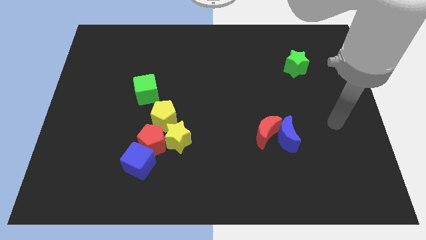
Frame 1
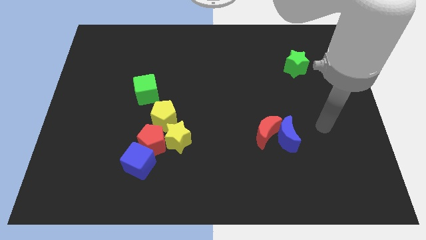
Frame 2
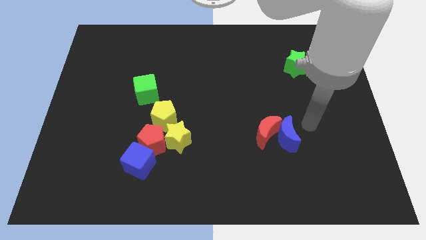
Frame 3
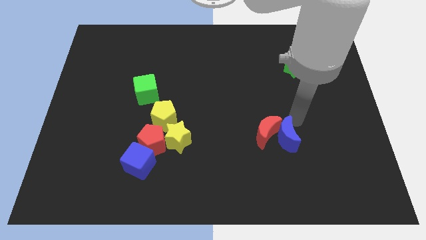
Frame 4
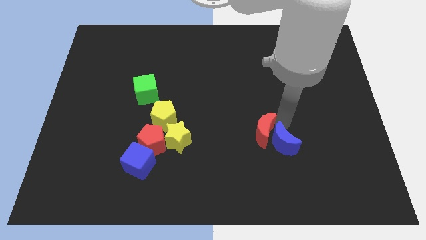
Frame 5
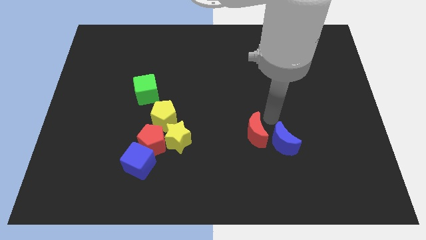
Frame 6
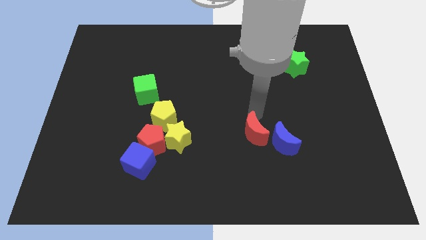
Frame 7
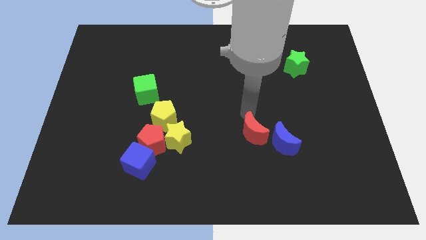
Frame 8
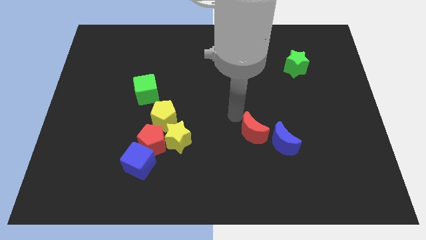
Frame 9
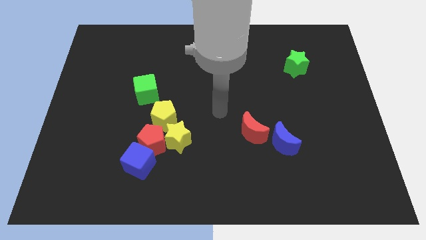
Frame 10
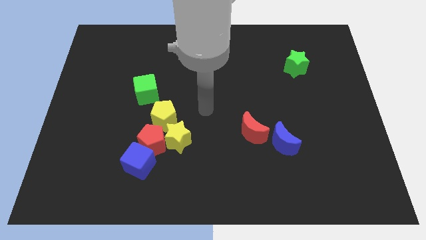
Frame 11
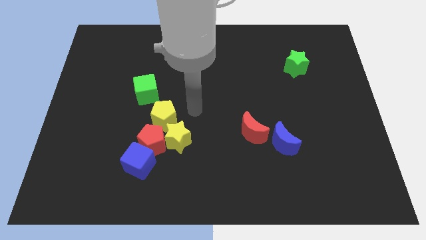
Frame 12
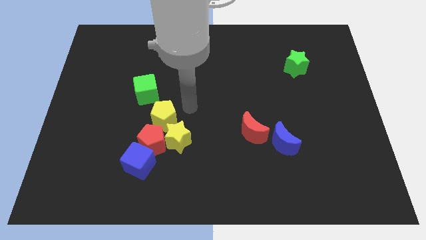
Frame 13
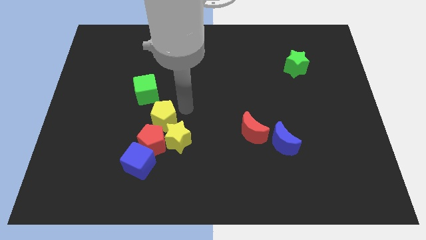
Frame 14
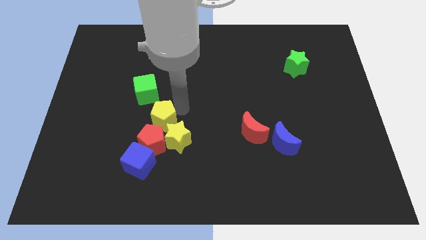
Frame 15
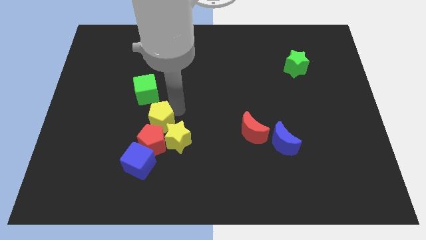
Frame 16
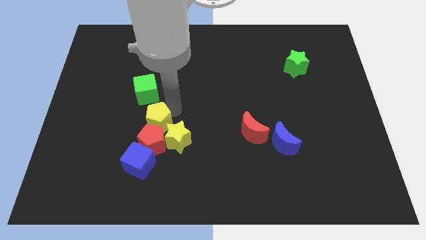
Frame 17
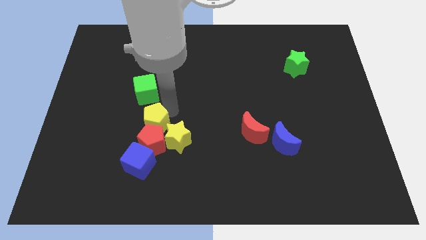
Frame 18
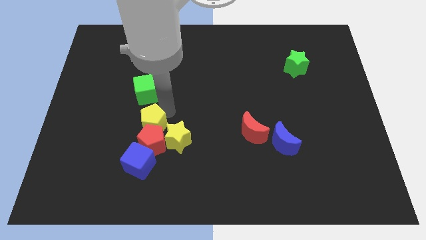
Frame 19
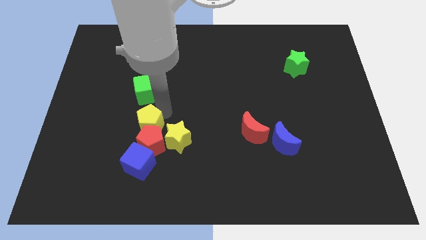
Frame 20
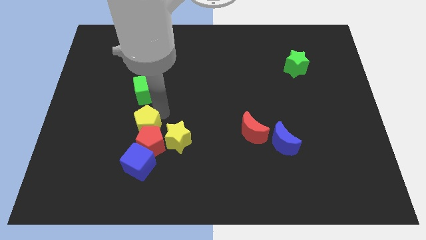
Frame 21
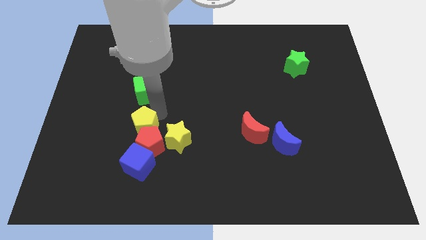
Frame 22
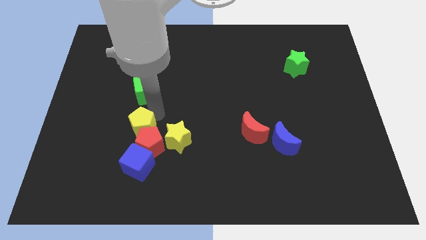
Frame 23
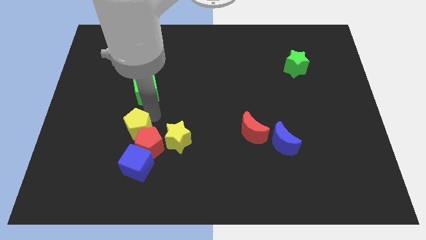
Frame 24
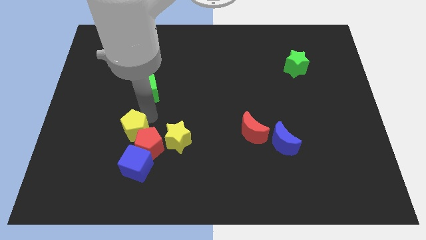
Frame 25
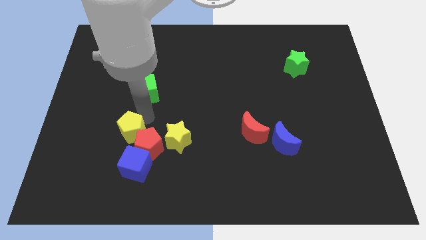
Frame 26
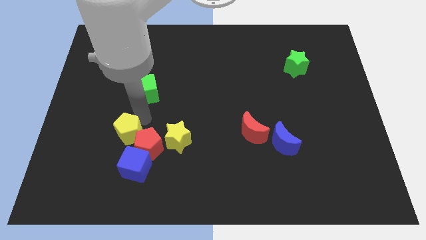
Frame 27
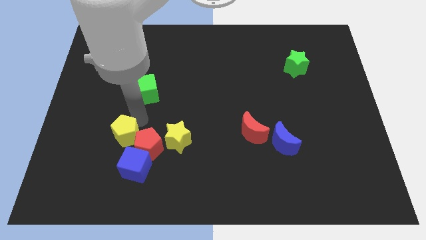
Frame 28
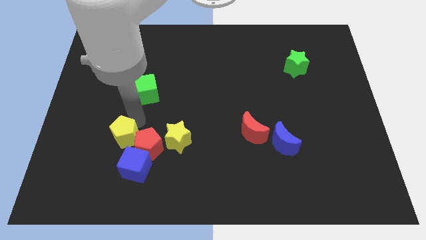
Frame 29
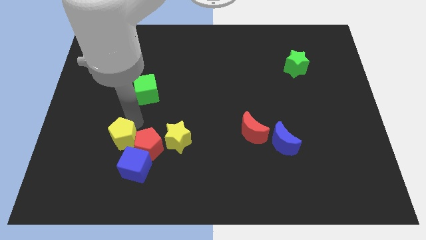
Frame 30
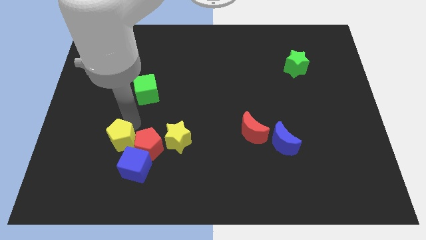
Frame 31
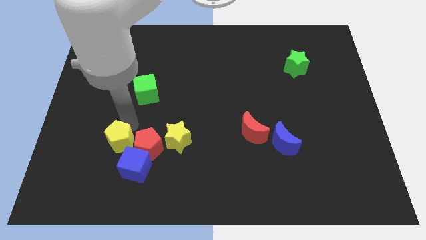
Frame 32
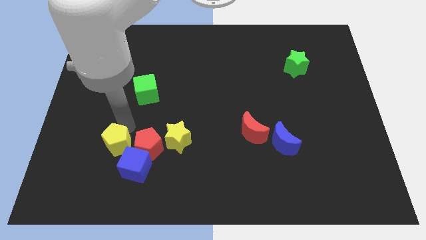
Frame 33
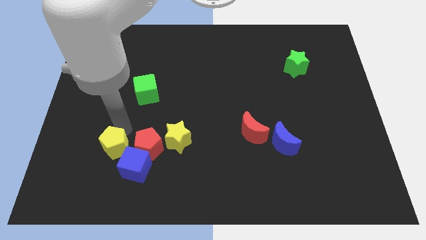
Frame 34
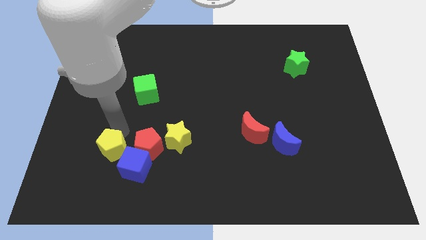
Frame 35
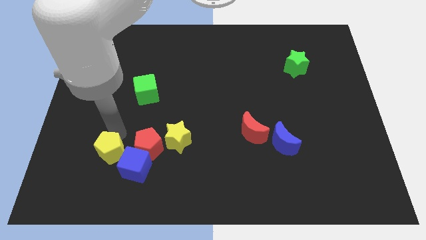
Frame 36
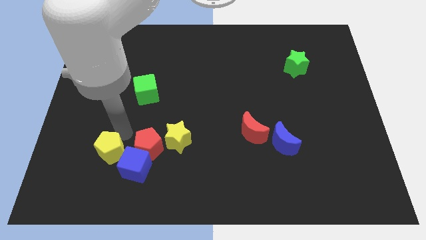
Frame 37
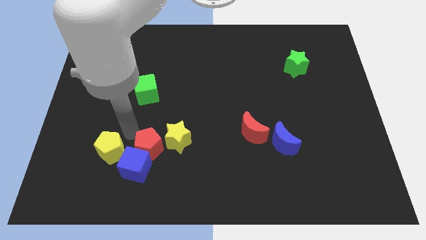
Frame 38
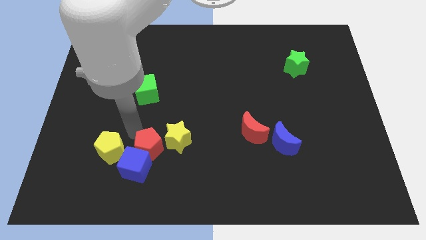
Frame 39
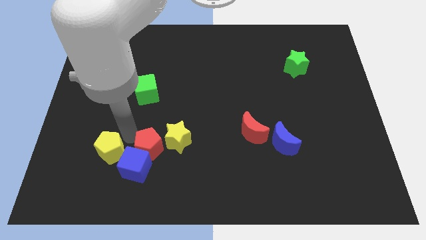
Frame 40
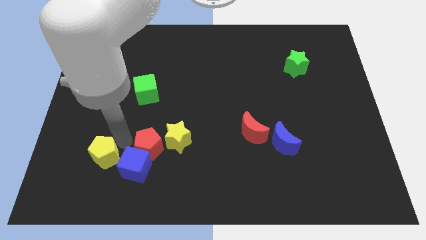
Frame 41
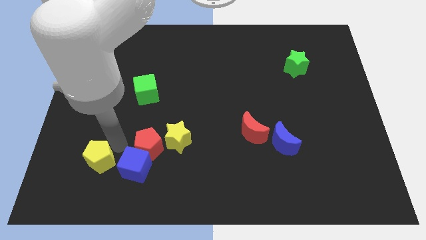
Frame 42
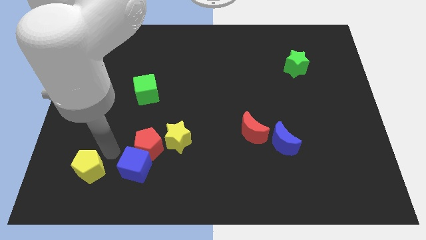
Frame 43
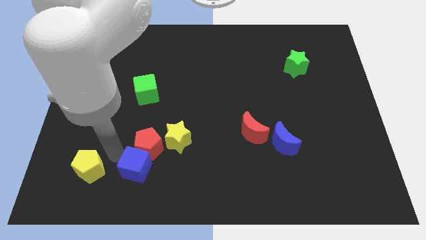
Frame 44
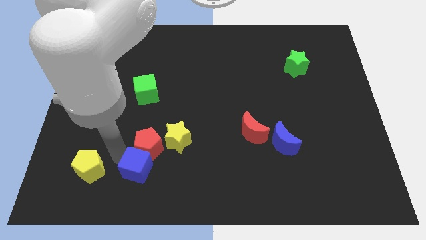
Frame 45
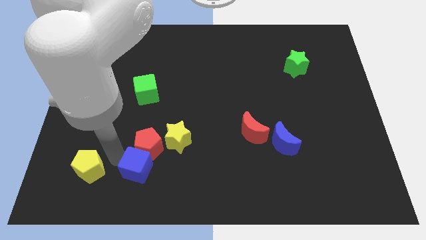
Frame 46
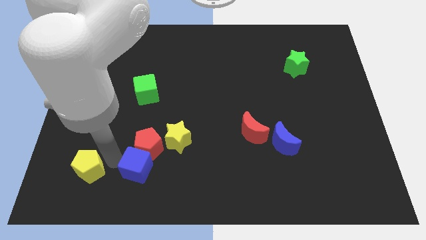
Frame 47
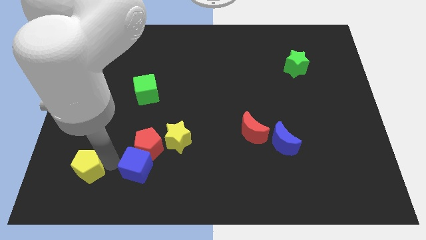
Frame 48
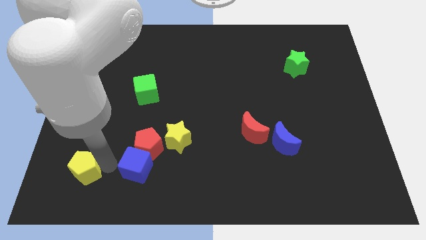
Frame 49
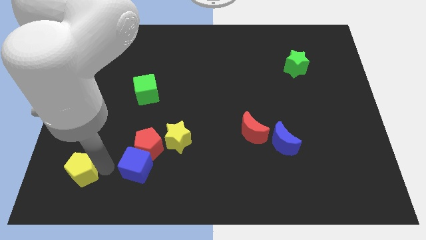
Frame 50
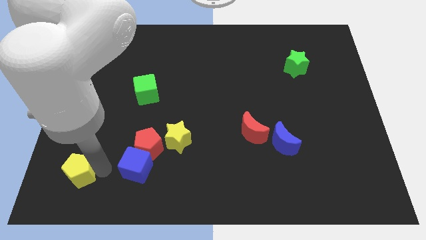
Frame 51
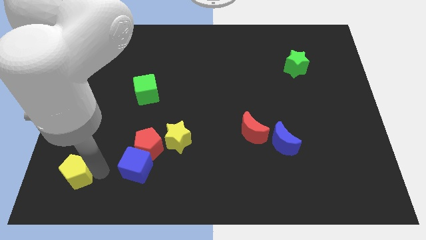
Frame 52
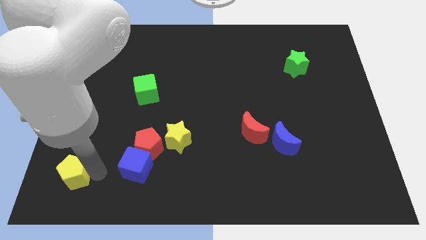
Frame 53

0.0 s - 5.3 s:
push the yellow pentagon to the bottom left of the board

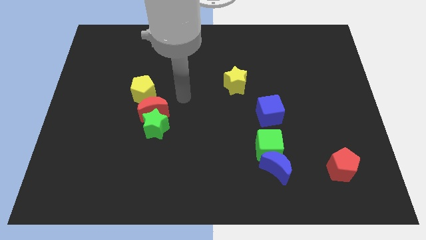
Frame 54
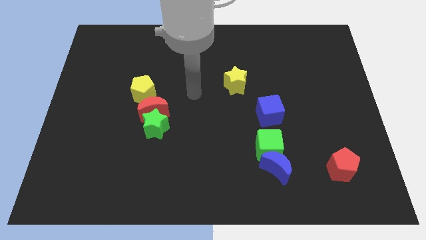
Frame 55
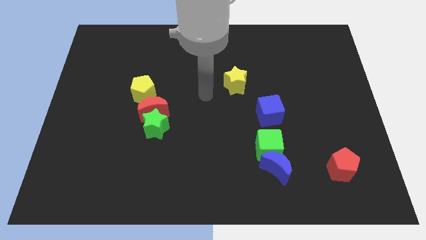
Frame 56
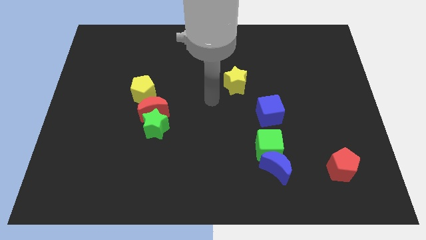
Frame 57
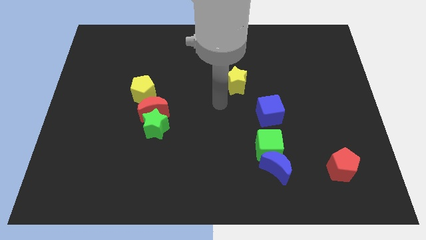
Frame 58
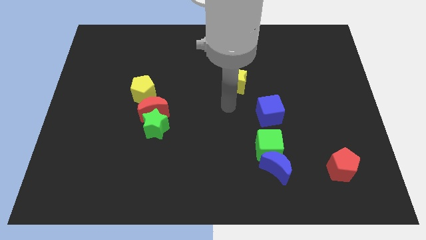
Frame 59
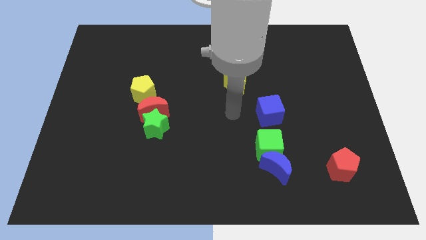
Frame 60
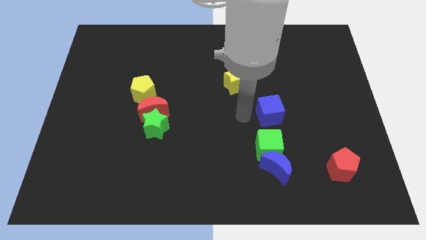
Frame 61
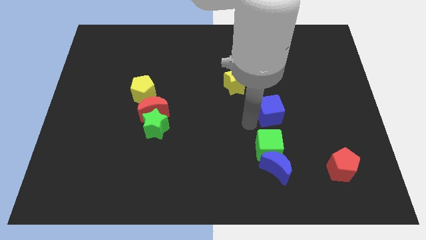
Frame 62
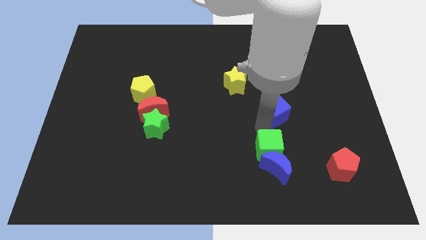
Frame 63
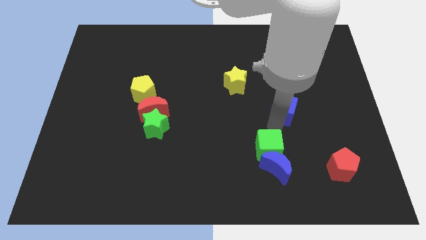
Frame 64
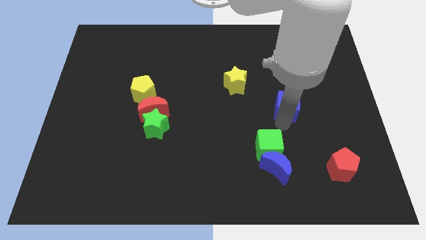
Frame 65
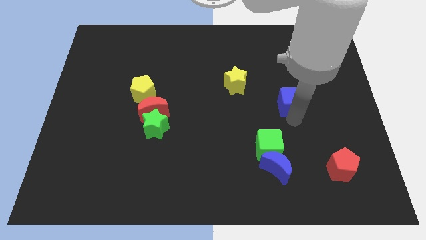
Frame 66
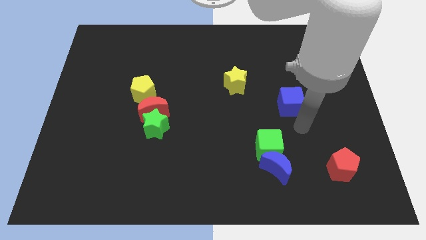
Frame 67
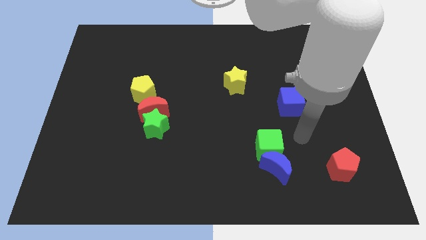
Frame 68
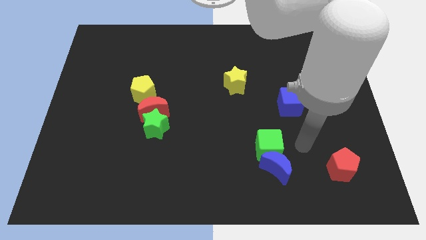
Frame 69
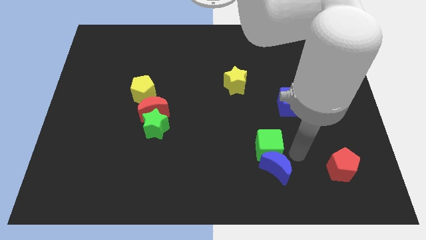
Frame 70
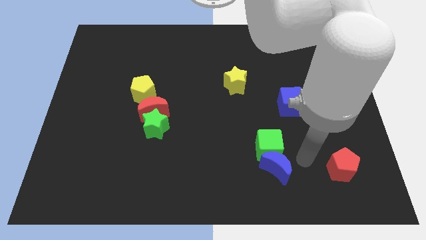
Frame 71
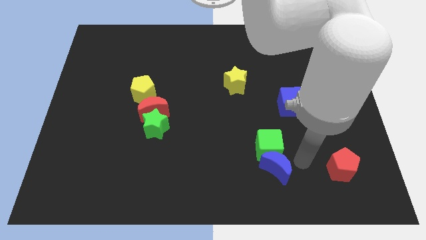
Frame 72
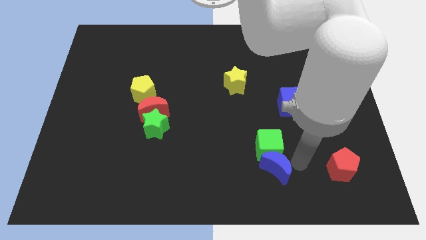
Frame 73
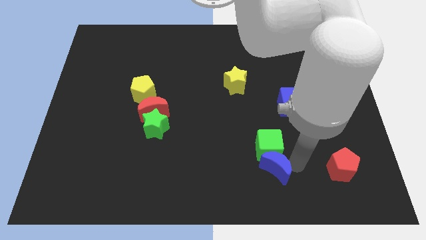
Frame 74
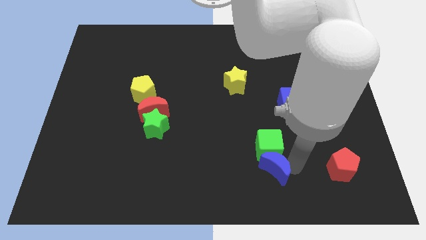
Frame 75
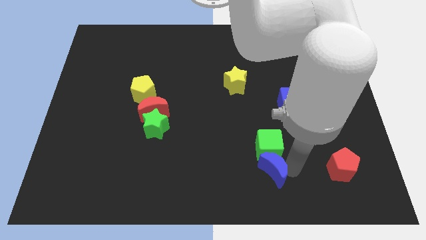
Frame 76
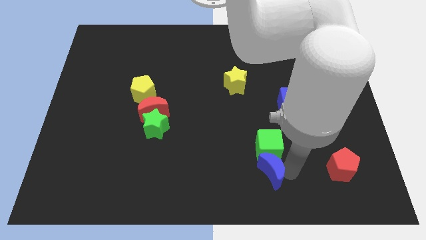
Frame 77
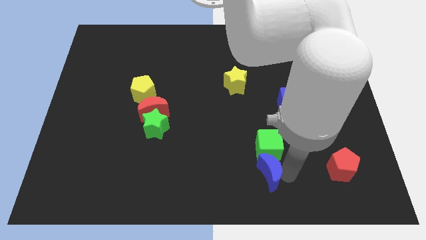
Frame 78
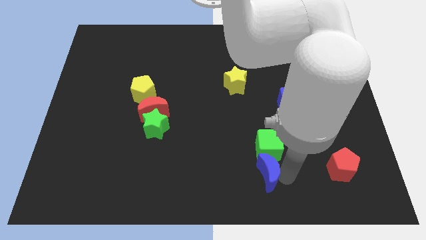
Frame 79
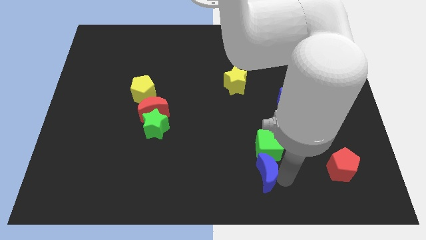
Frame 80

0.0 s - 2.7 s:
slide the blue moon to the bottom
